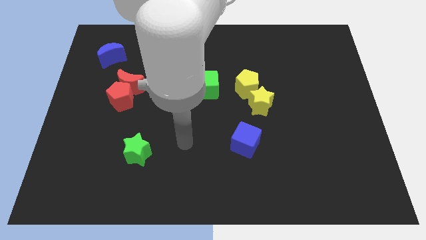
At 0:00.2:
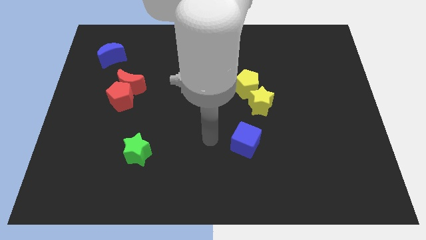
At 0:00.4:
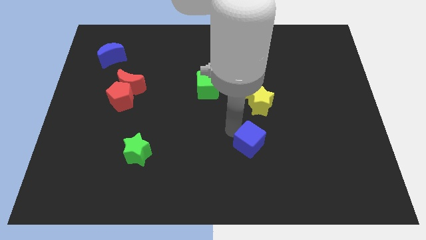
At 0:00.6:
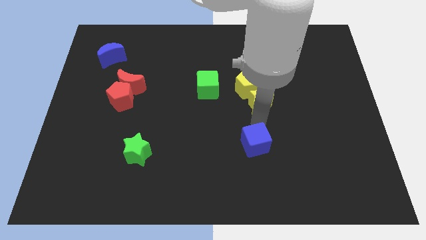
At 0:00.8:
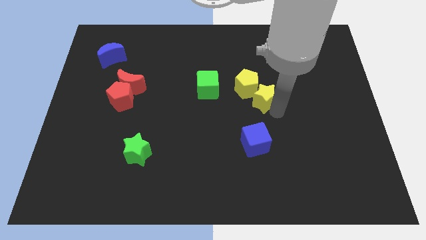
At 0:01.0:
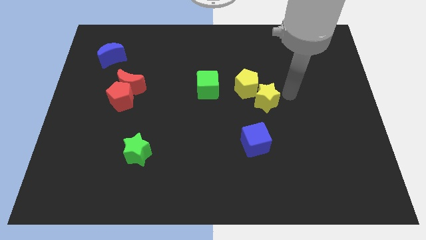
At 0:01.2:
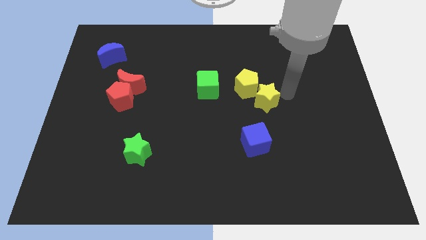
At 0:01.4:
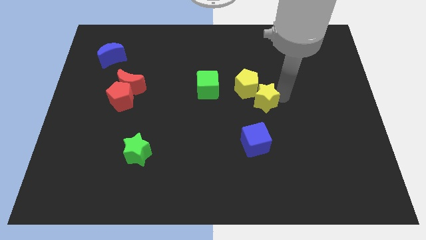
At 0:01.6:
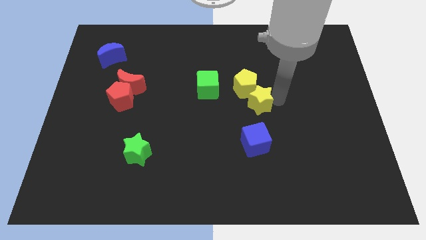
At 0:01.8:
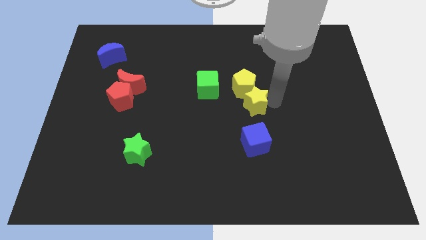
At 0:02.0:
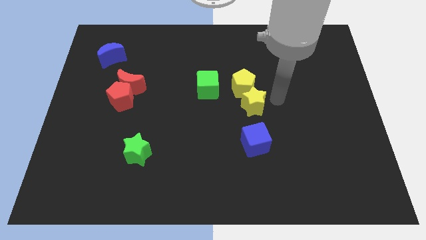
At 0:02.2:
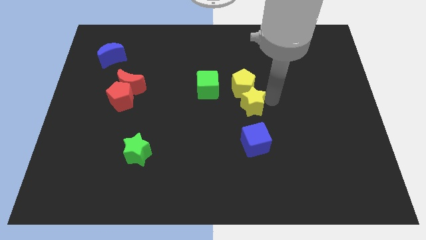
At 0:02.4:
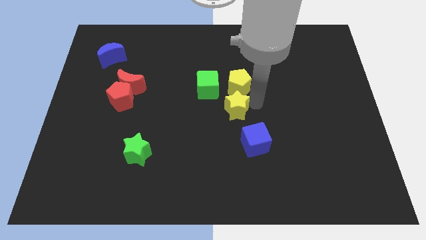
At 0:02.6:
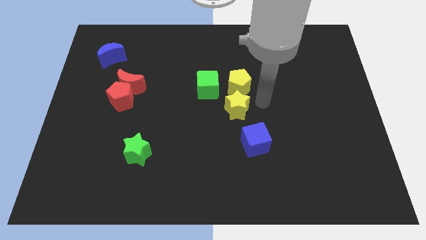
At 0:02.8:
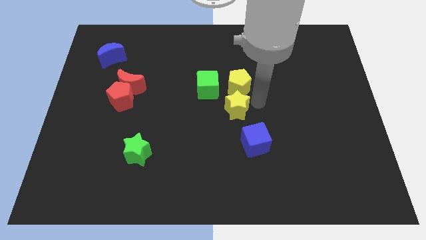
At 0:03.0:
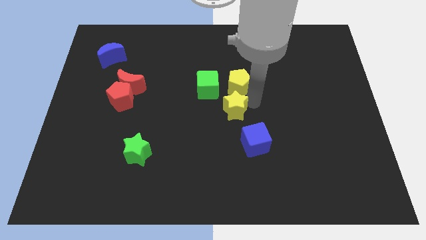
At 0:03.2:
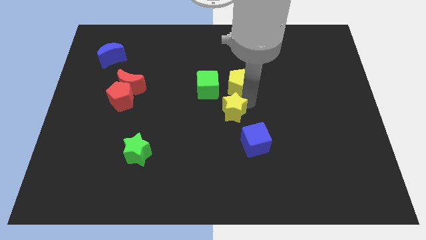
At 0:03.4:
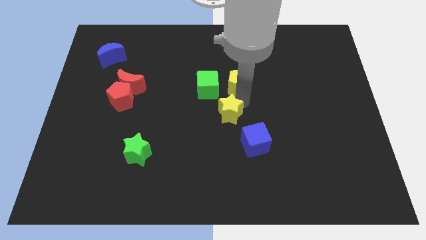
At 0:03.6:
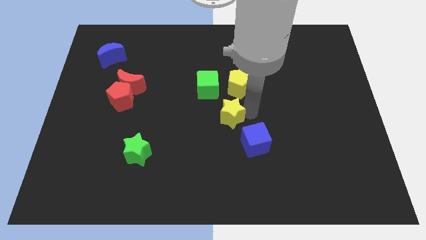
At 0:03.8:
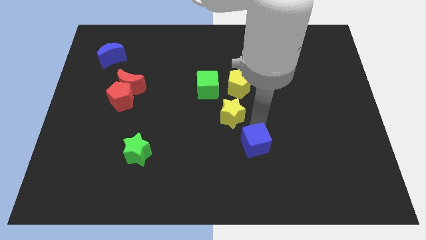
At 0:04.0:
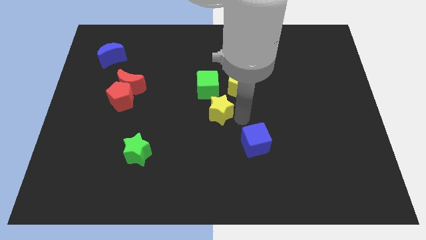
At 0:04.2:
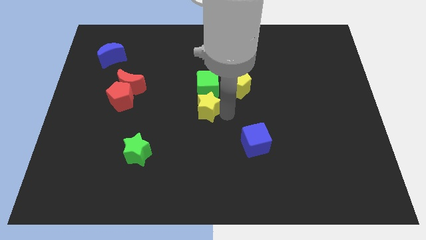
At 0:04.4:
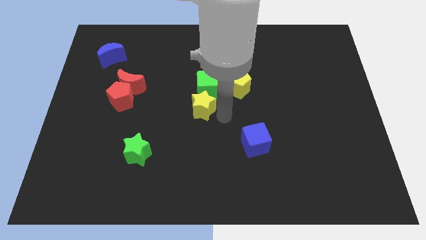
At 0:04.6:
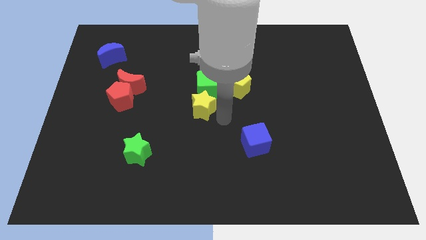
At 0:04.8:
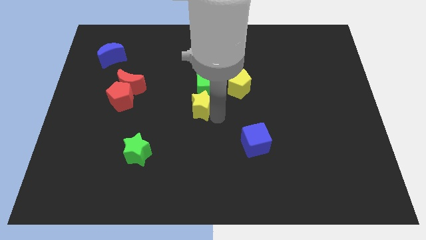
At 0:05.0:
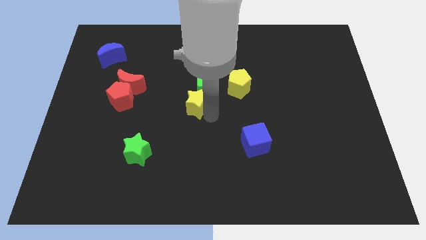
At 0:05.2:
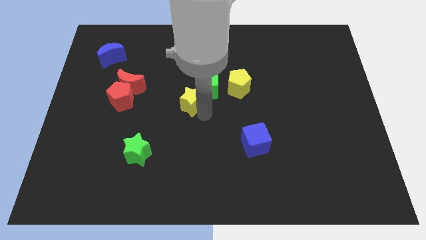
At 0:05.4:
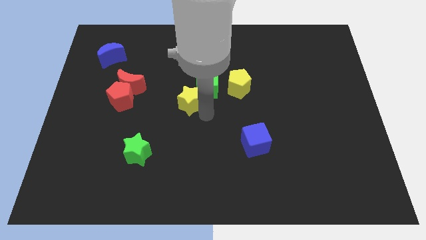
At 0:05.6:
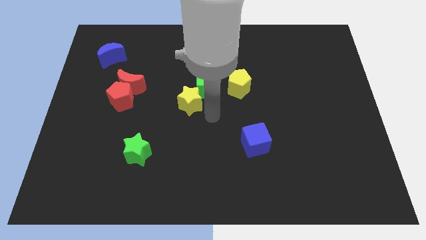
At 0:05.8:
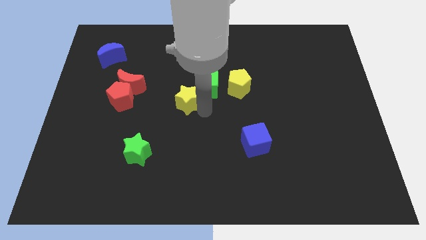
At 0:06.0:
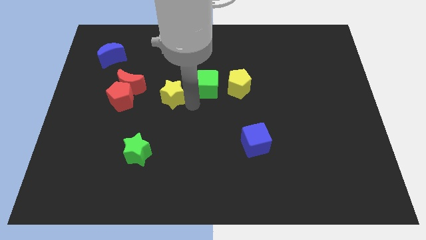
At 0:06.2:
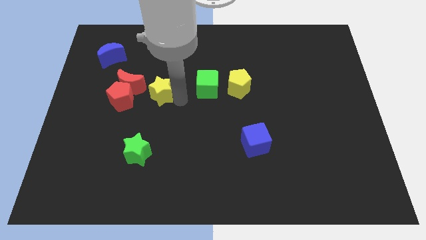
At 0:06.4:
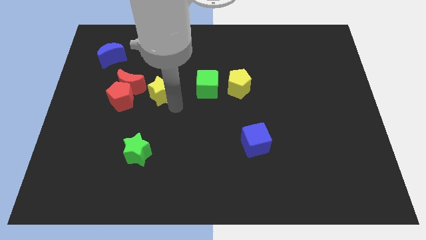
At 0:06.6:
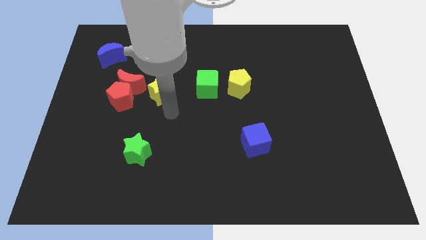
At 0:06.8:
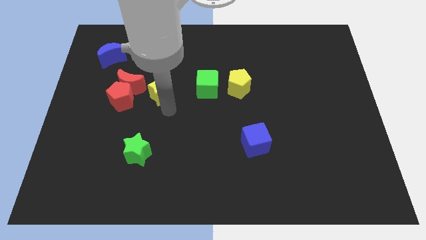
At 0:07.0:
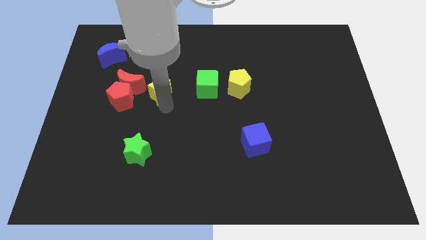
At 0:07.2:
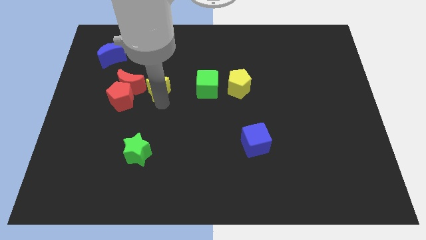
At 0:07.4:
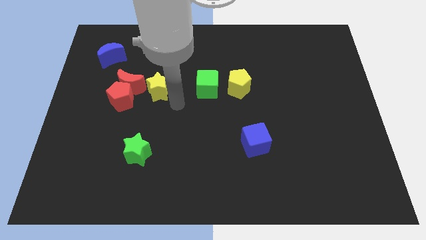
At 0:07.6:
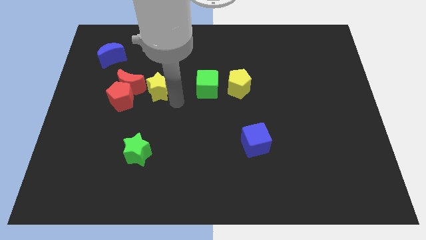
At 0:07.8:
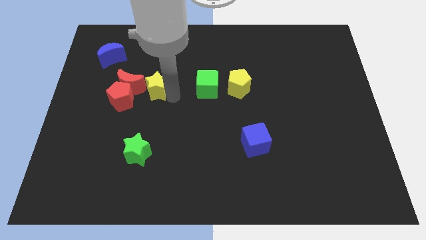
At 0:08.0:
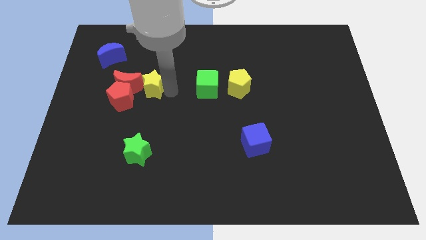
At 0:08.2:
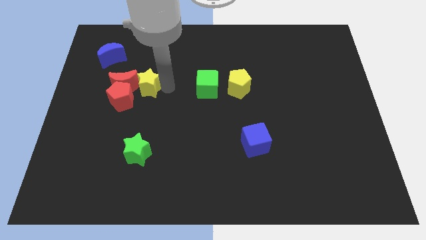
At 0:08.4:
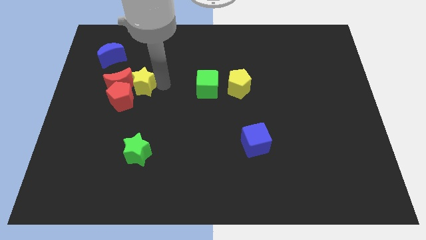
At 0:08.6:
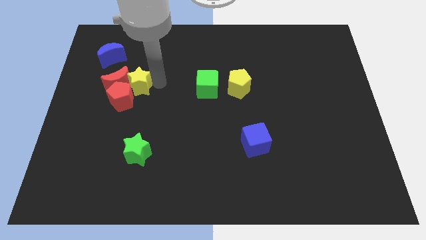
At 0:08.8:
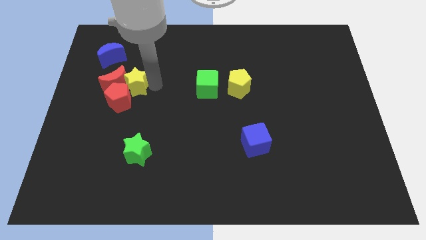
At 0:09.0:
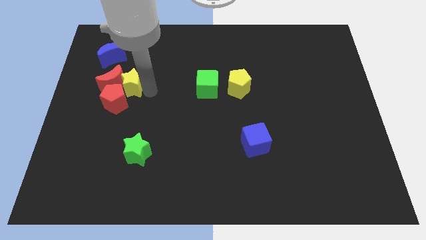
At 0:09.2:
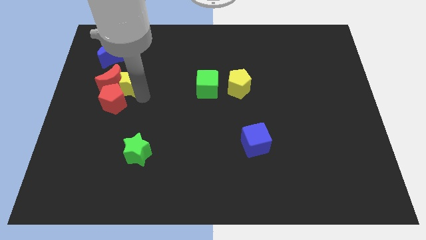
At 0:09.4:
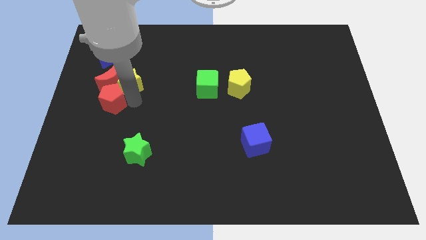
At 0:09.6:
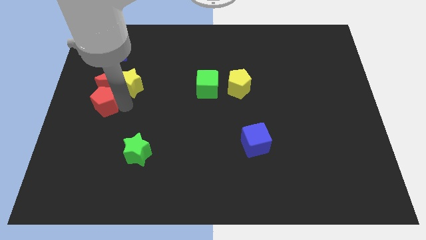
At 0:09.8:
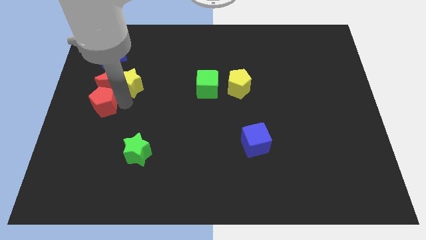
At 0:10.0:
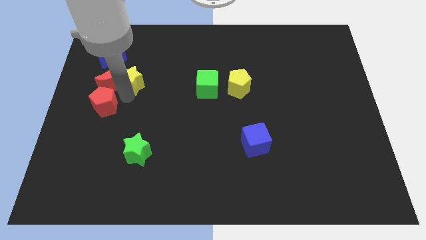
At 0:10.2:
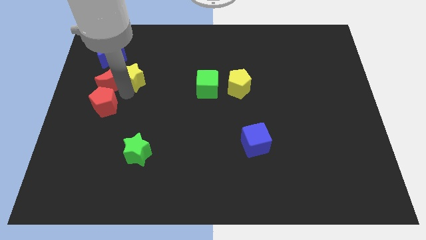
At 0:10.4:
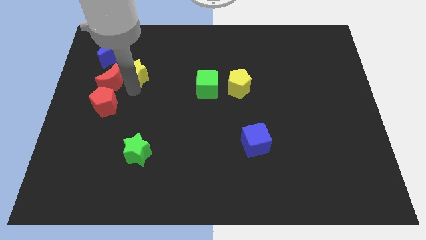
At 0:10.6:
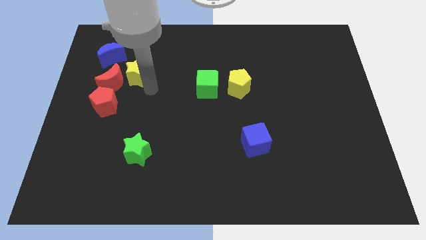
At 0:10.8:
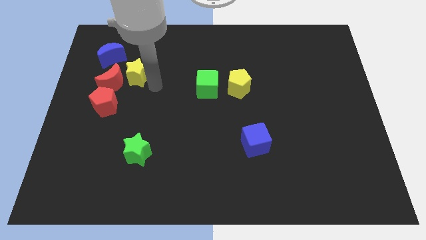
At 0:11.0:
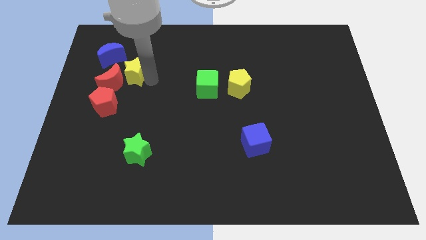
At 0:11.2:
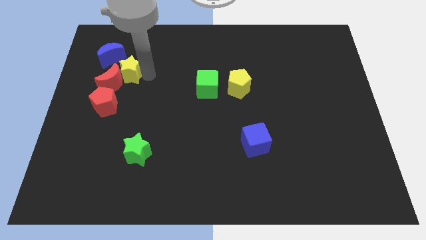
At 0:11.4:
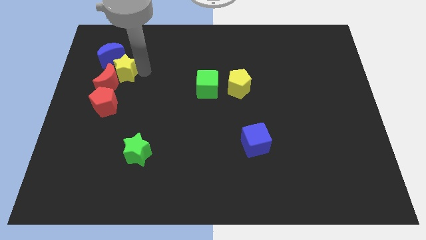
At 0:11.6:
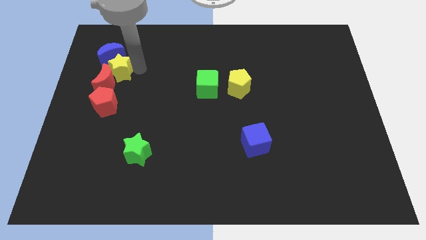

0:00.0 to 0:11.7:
move the yellow star next to the blue moon

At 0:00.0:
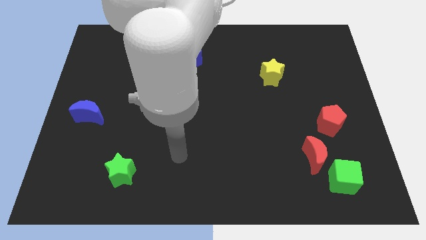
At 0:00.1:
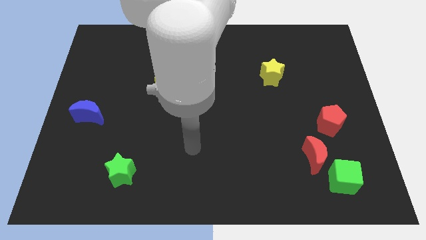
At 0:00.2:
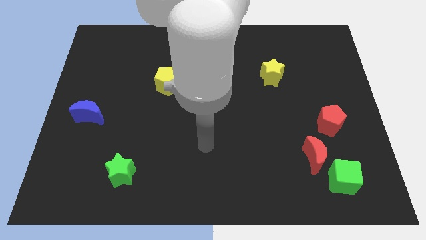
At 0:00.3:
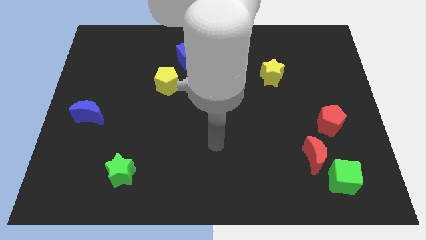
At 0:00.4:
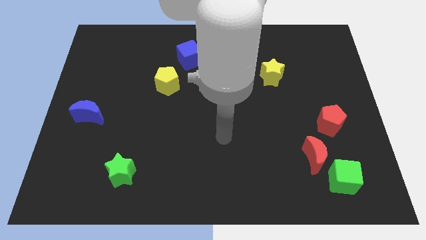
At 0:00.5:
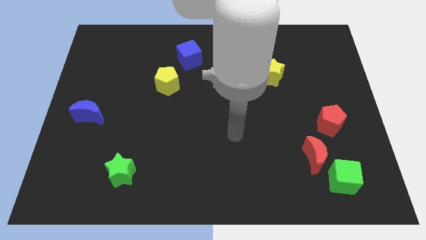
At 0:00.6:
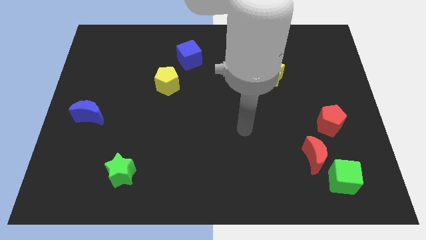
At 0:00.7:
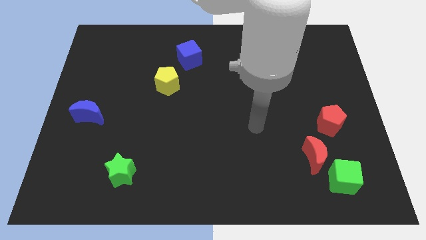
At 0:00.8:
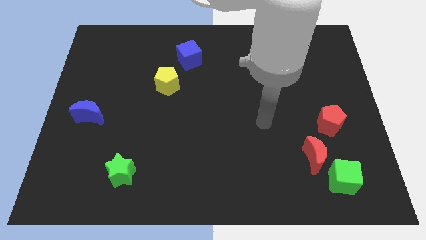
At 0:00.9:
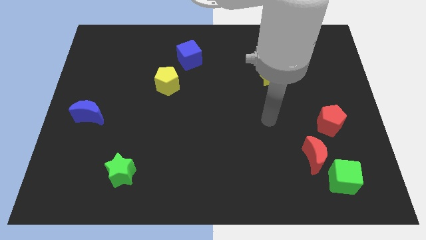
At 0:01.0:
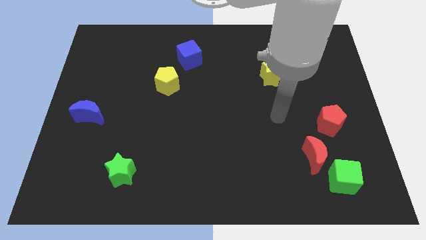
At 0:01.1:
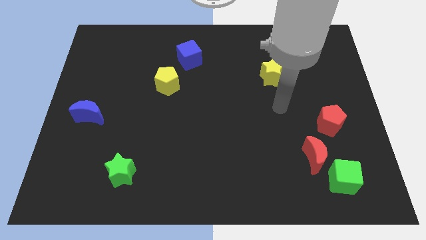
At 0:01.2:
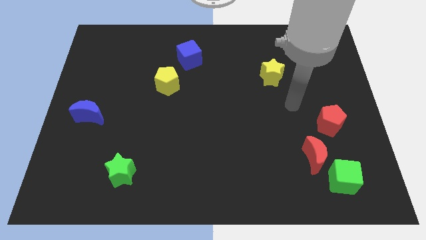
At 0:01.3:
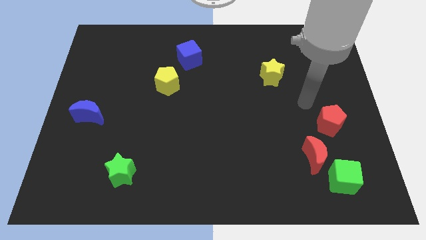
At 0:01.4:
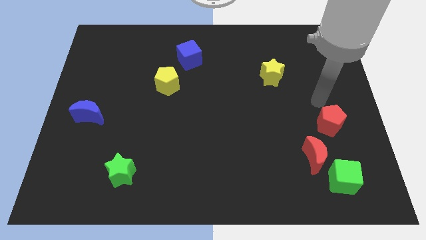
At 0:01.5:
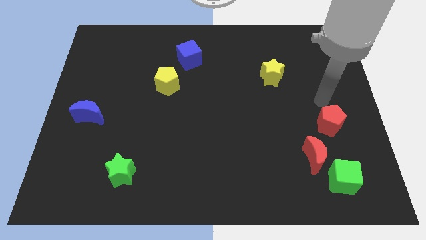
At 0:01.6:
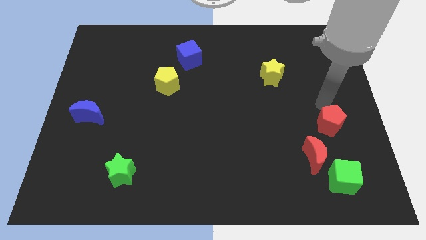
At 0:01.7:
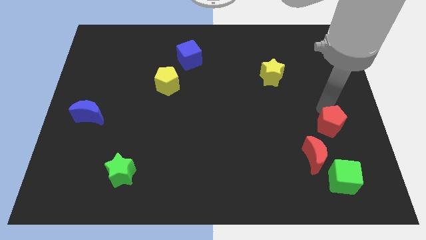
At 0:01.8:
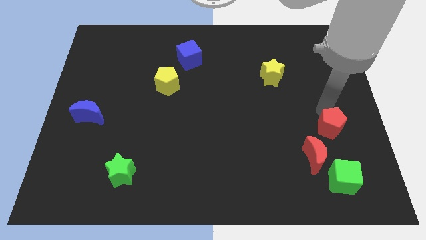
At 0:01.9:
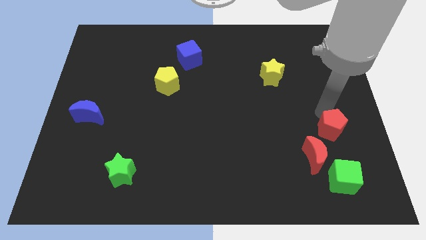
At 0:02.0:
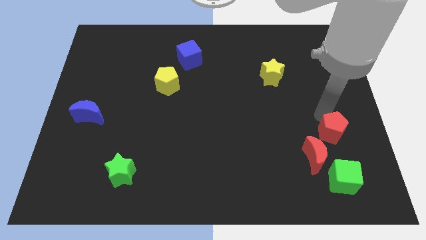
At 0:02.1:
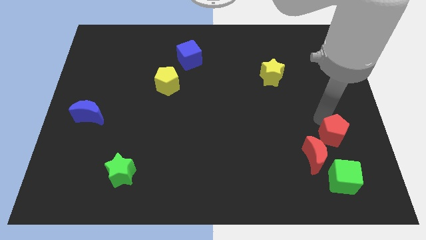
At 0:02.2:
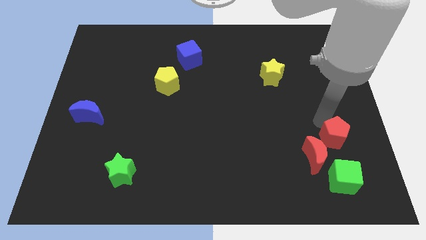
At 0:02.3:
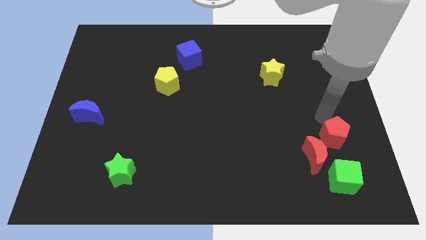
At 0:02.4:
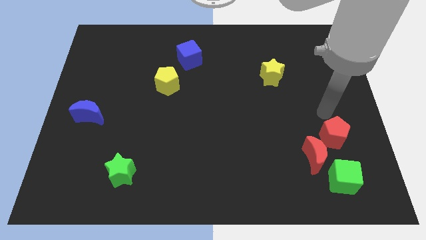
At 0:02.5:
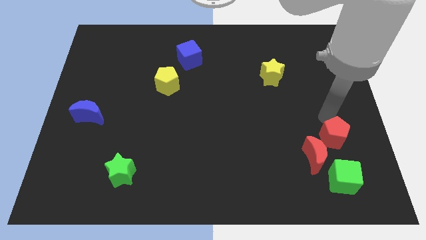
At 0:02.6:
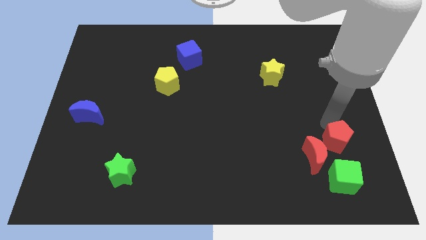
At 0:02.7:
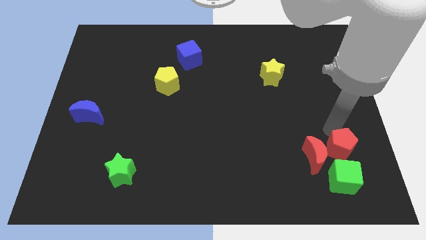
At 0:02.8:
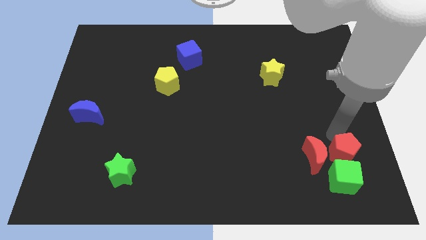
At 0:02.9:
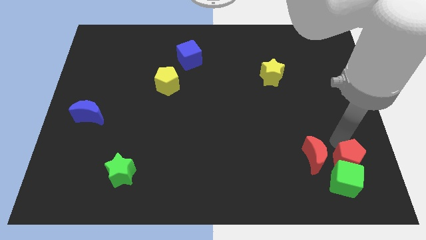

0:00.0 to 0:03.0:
slide the red pentagon close to the green cube
